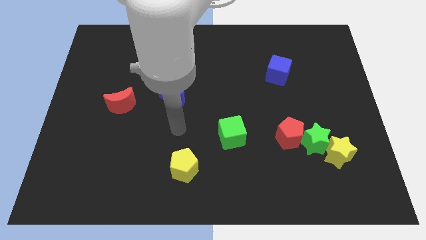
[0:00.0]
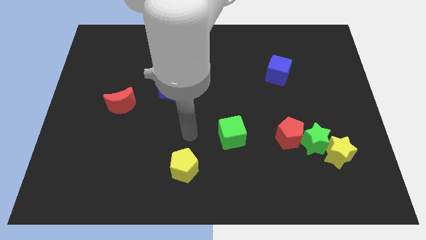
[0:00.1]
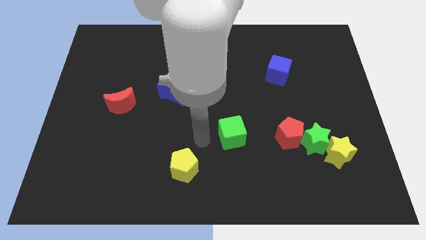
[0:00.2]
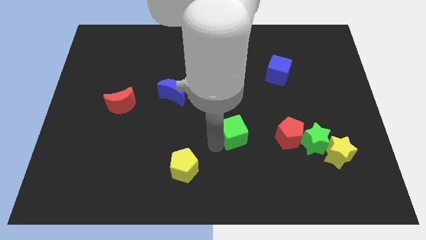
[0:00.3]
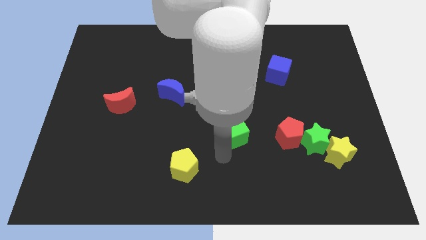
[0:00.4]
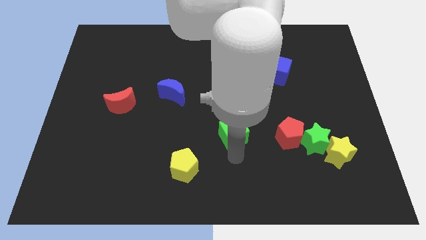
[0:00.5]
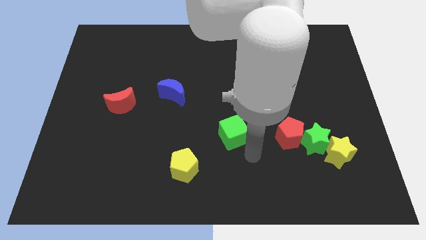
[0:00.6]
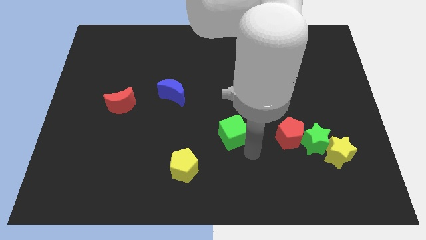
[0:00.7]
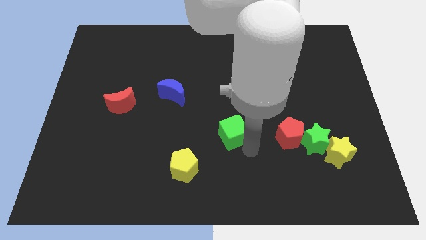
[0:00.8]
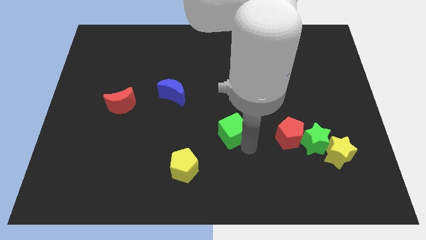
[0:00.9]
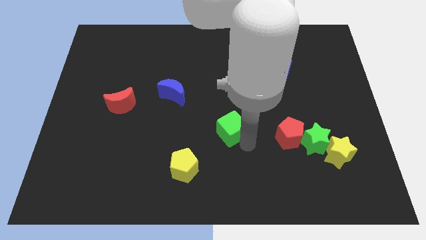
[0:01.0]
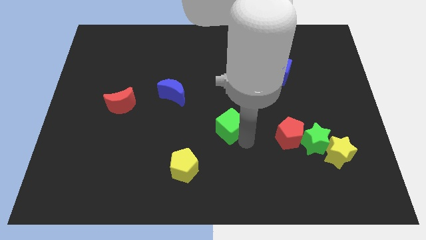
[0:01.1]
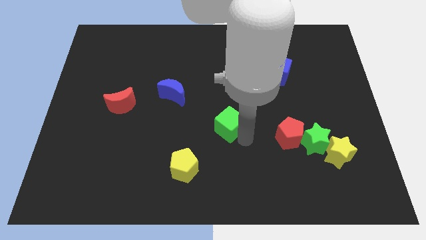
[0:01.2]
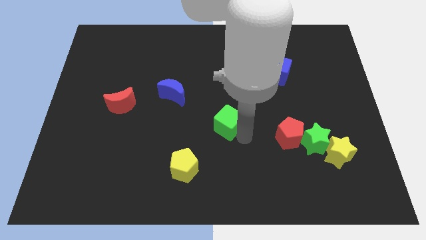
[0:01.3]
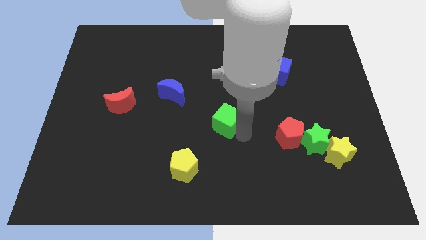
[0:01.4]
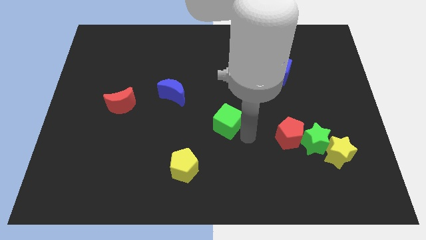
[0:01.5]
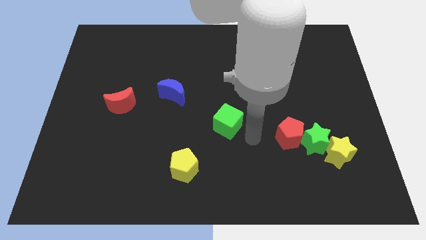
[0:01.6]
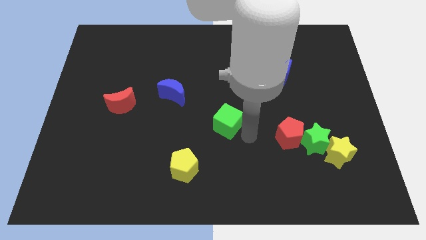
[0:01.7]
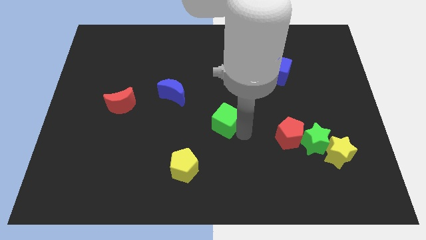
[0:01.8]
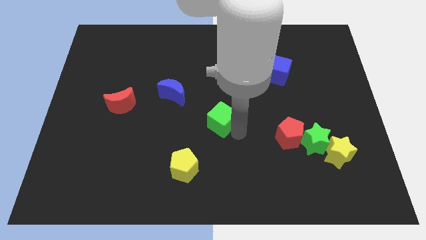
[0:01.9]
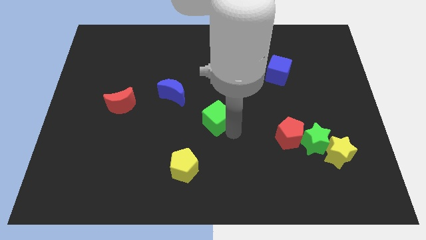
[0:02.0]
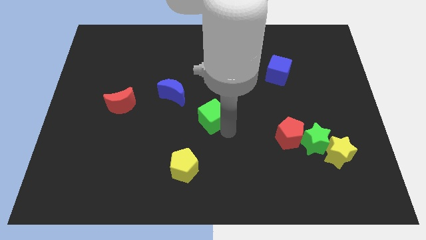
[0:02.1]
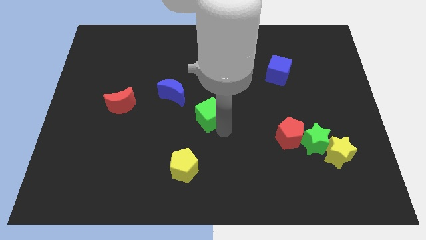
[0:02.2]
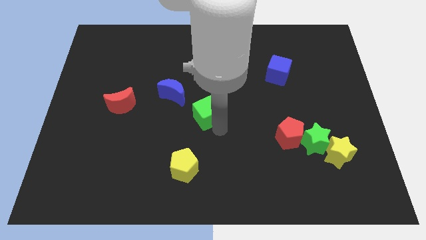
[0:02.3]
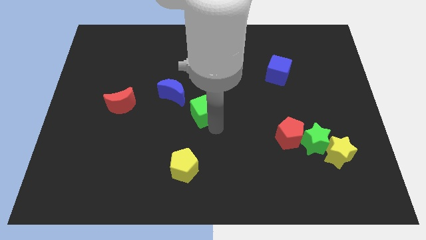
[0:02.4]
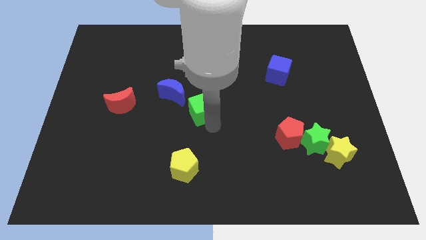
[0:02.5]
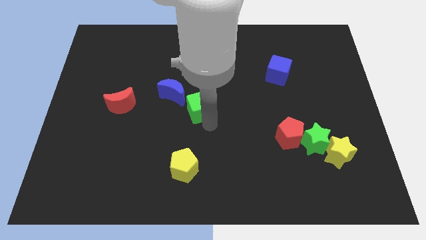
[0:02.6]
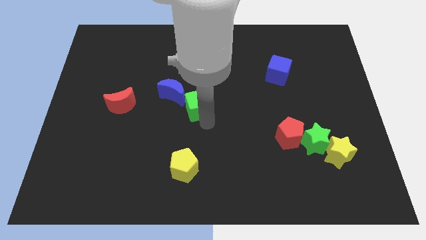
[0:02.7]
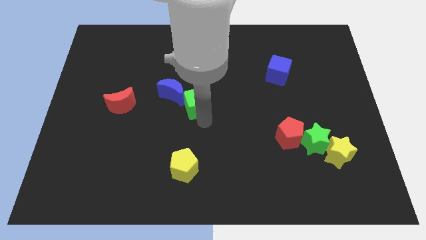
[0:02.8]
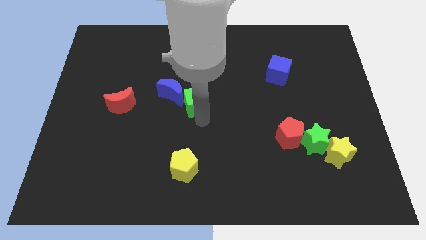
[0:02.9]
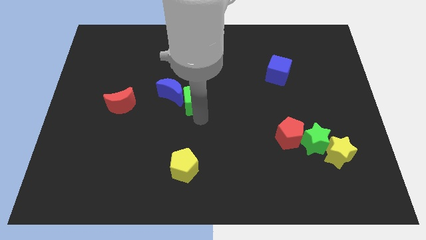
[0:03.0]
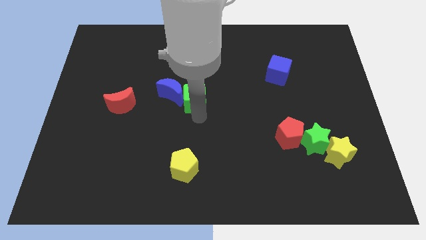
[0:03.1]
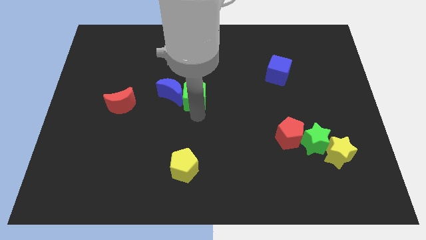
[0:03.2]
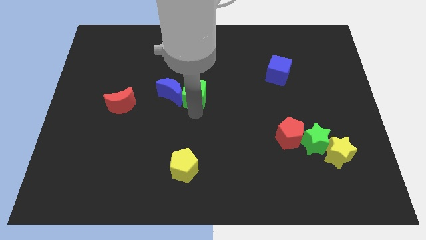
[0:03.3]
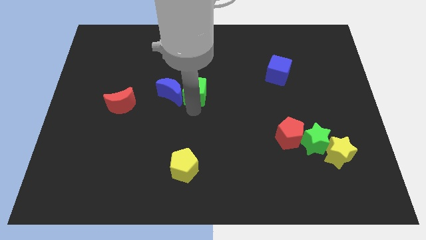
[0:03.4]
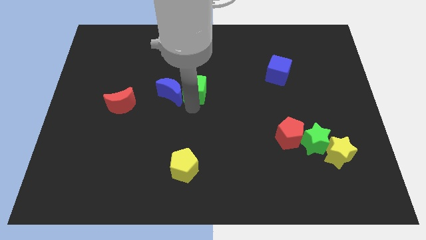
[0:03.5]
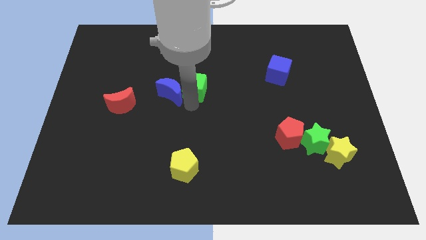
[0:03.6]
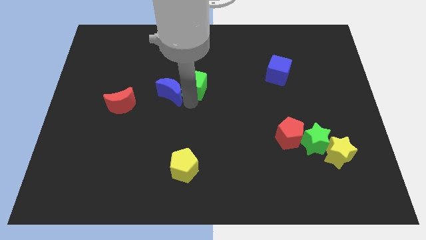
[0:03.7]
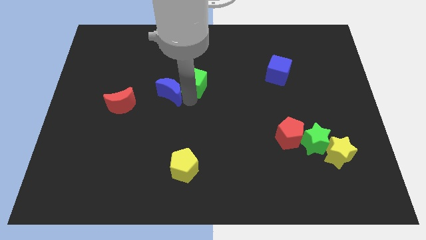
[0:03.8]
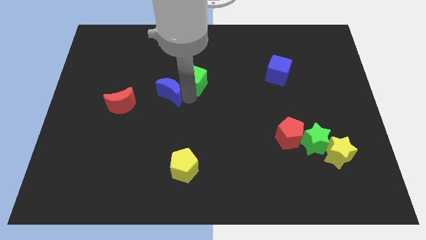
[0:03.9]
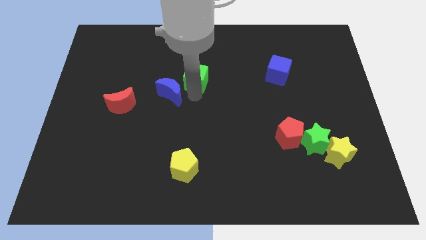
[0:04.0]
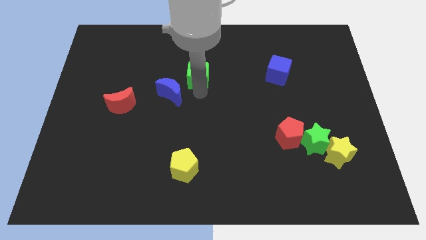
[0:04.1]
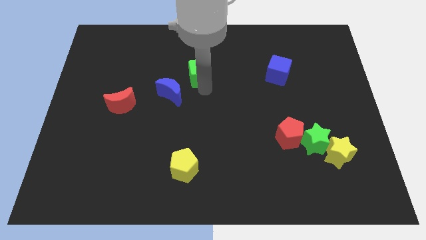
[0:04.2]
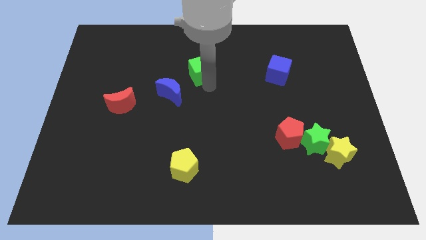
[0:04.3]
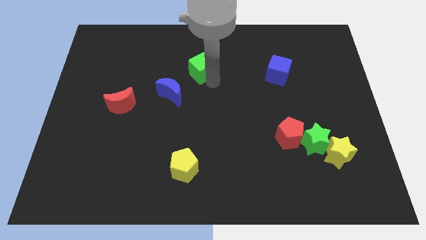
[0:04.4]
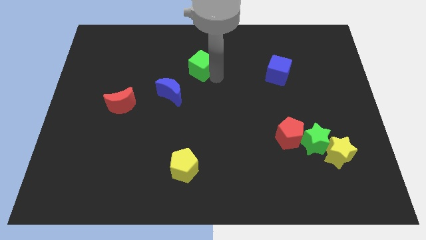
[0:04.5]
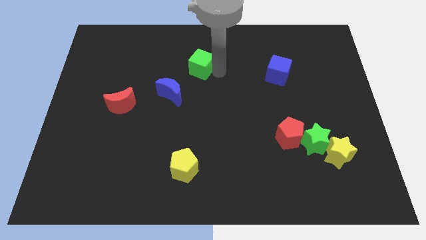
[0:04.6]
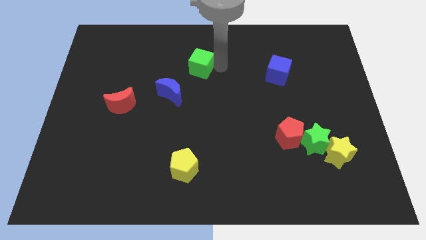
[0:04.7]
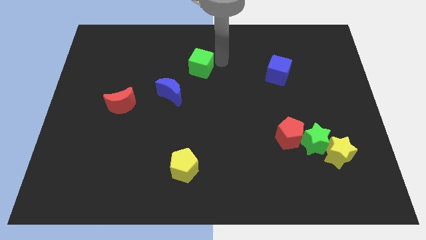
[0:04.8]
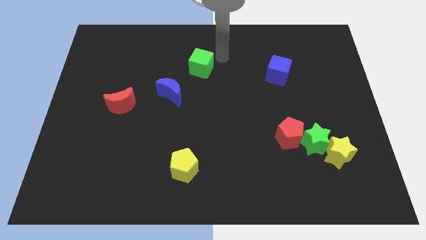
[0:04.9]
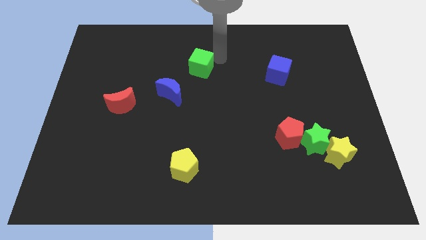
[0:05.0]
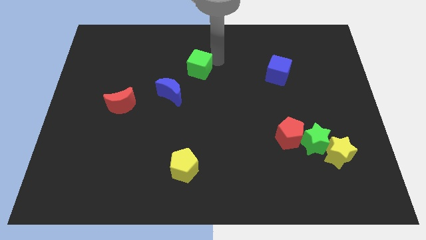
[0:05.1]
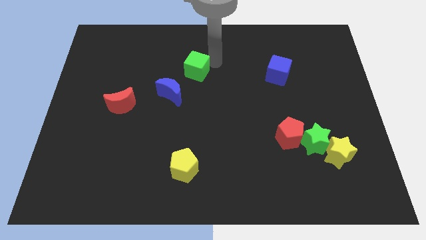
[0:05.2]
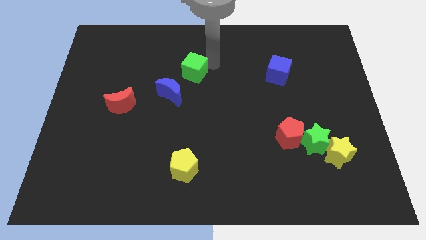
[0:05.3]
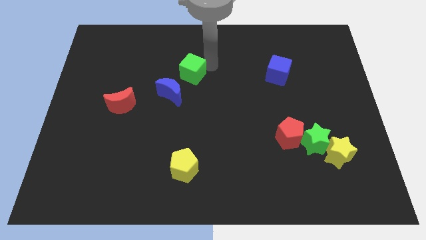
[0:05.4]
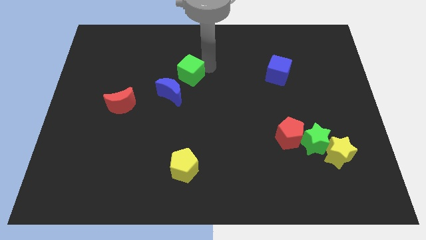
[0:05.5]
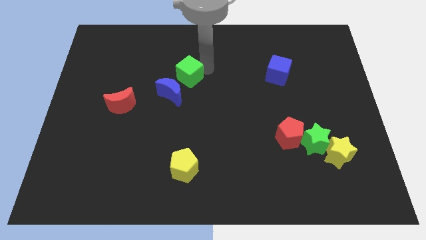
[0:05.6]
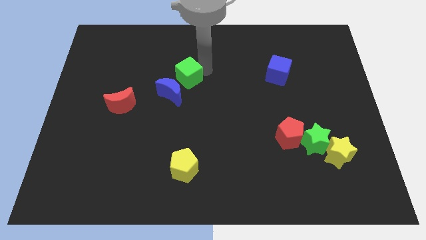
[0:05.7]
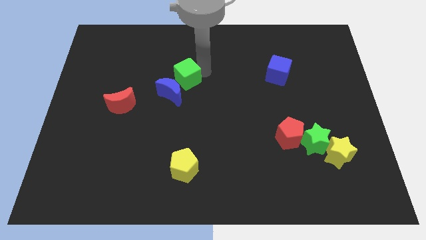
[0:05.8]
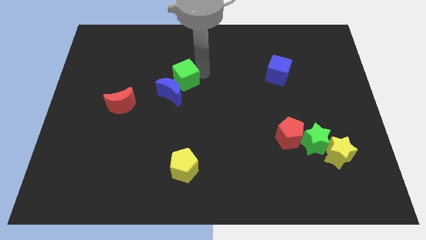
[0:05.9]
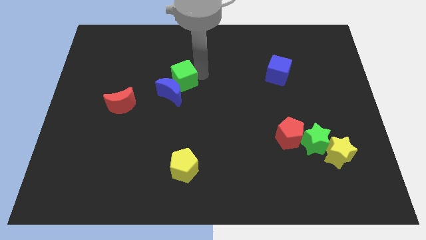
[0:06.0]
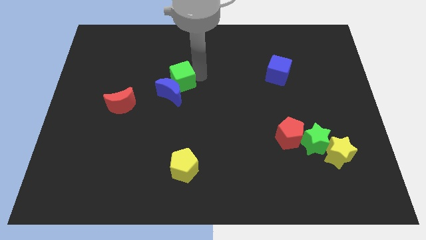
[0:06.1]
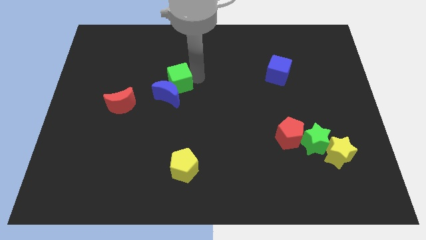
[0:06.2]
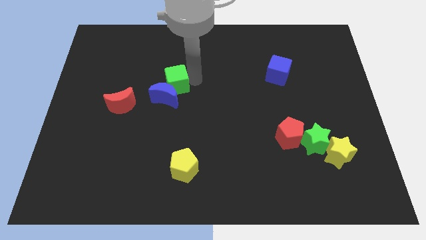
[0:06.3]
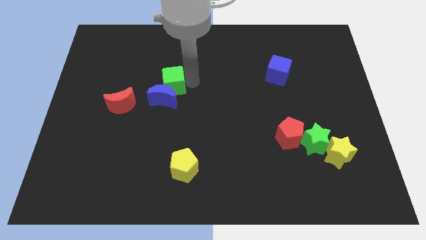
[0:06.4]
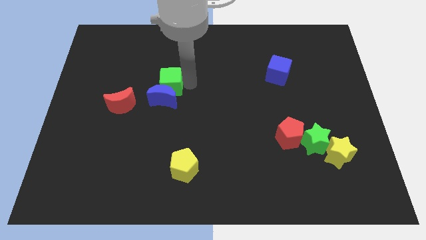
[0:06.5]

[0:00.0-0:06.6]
slide the green cube to the top left side of the blue moon

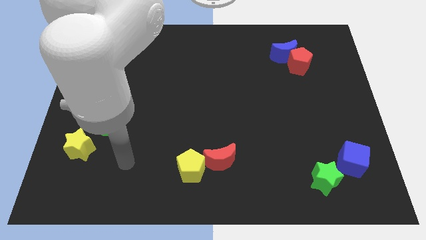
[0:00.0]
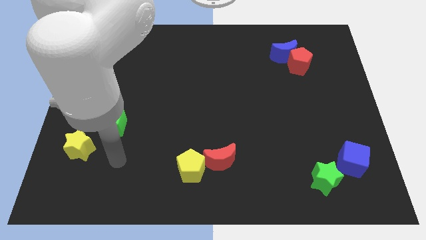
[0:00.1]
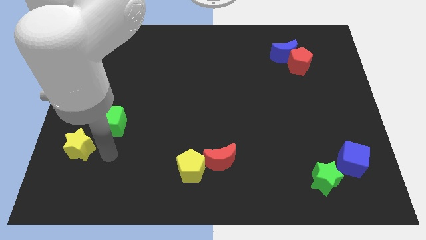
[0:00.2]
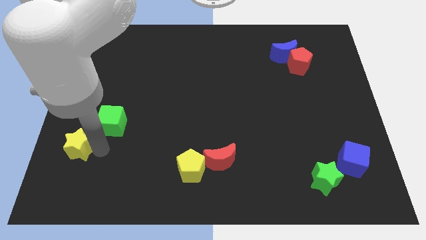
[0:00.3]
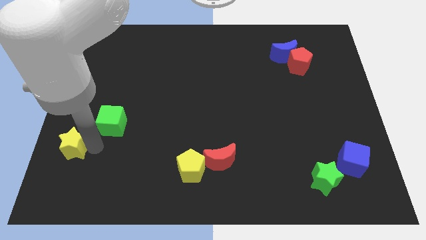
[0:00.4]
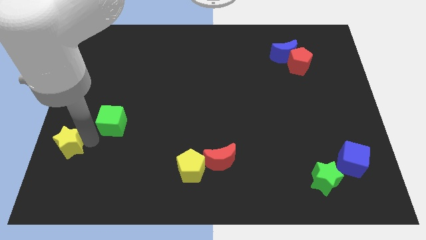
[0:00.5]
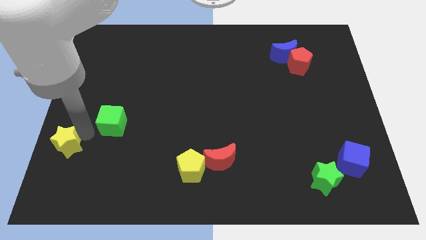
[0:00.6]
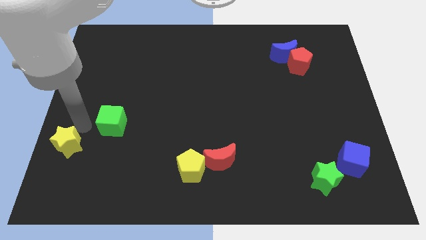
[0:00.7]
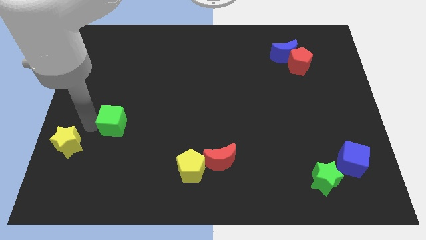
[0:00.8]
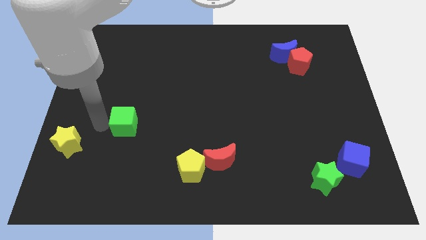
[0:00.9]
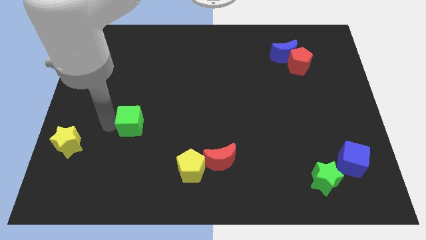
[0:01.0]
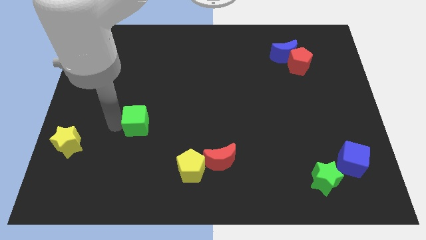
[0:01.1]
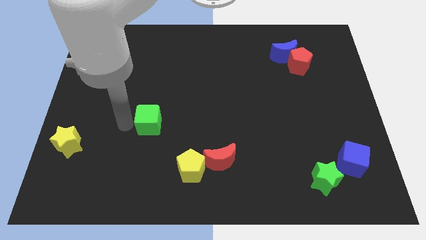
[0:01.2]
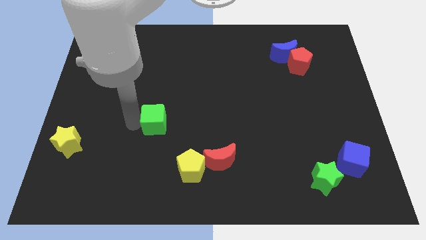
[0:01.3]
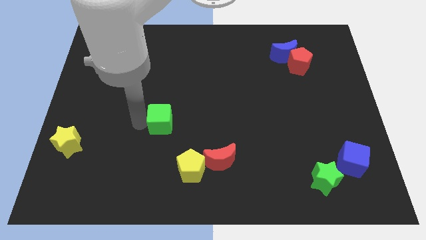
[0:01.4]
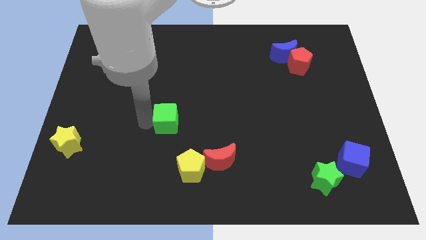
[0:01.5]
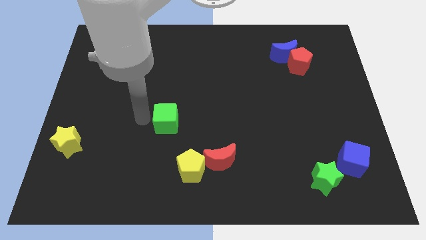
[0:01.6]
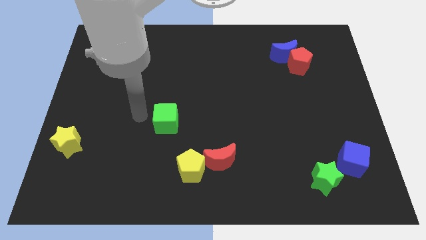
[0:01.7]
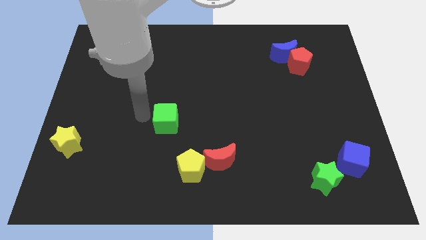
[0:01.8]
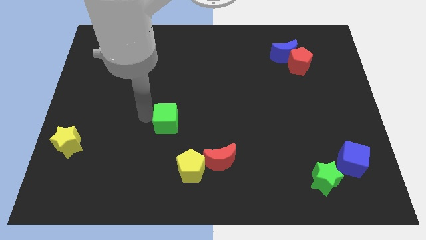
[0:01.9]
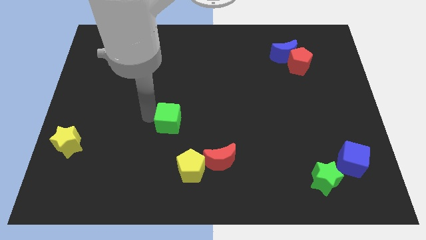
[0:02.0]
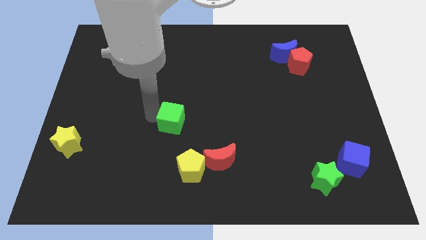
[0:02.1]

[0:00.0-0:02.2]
move the green cube to the top of the yellow pentagon
